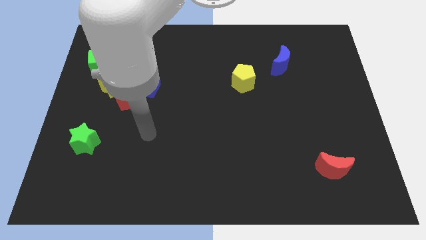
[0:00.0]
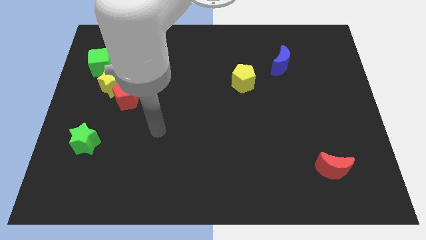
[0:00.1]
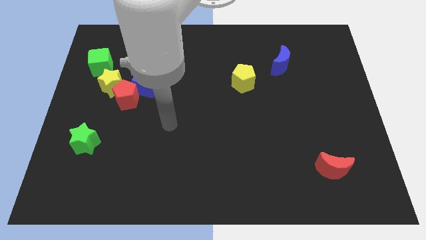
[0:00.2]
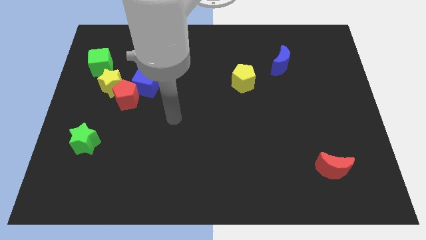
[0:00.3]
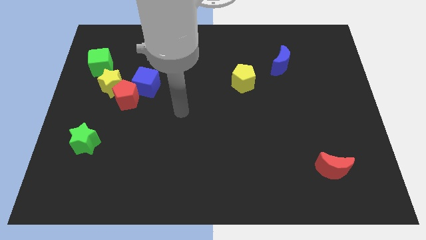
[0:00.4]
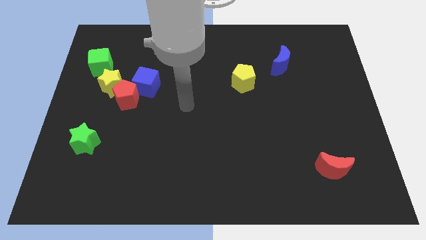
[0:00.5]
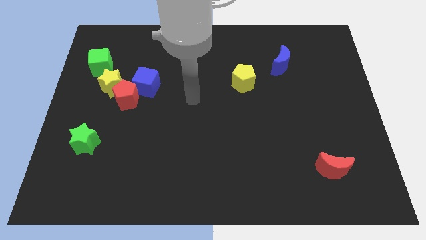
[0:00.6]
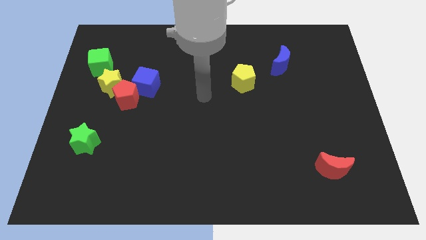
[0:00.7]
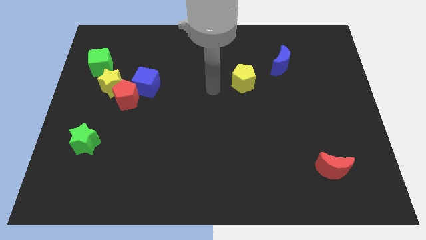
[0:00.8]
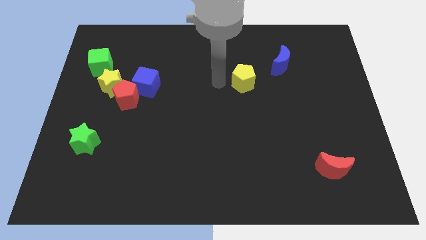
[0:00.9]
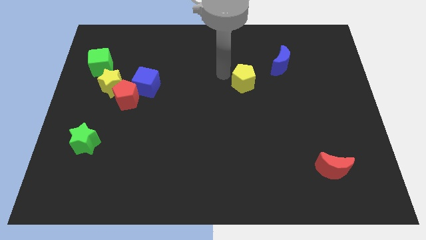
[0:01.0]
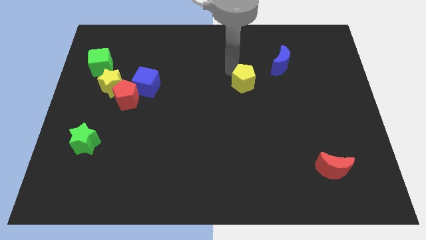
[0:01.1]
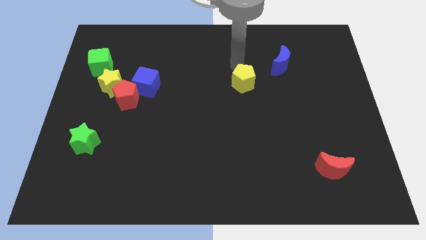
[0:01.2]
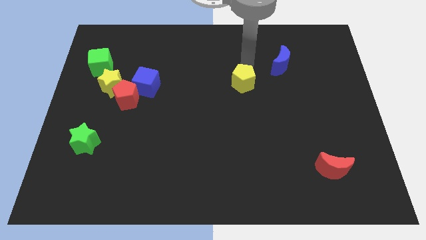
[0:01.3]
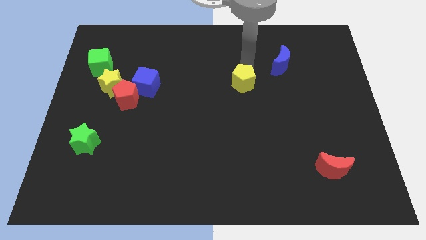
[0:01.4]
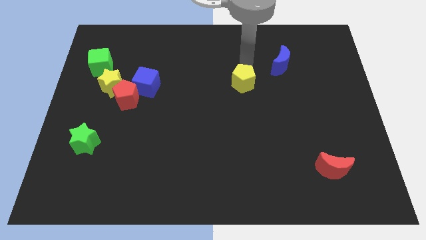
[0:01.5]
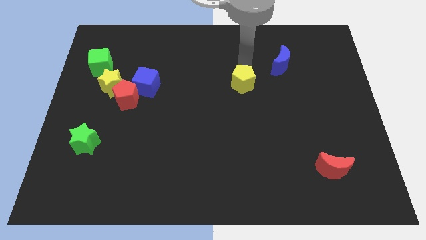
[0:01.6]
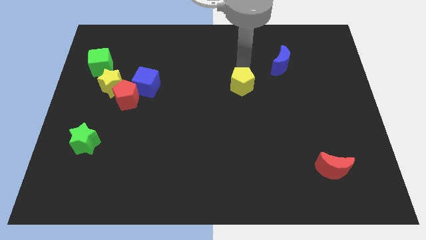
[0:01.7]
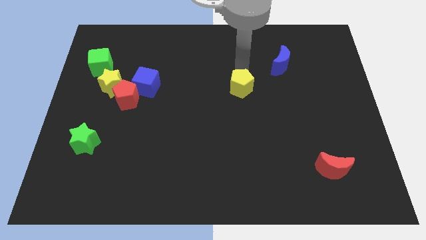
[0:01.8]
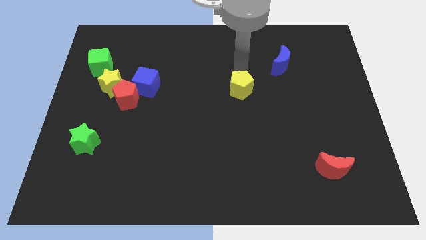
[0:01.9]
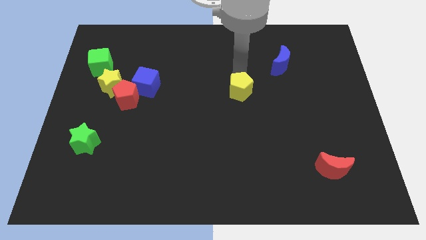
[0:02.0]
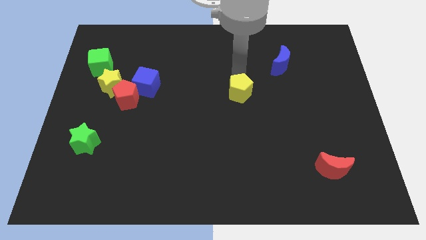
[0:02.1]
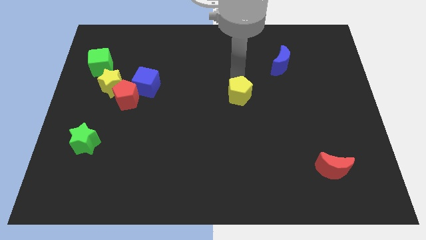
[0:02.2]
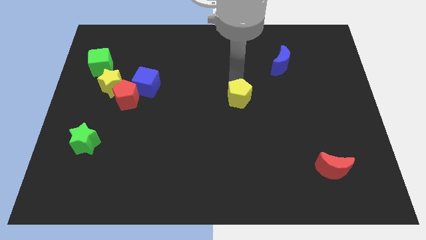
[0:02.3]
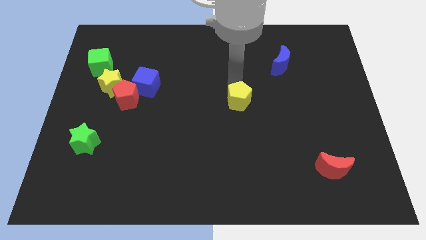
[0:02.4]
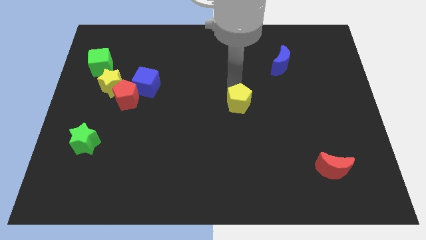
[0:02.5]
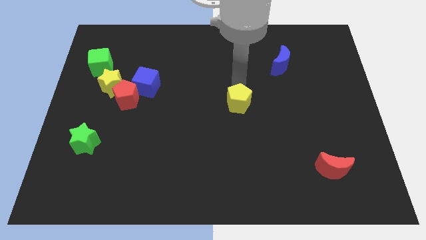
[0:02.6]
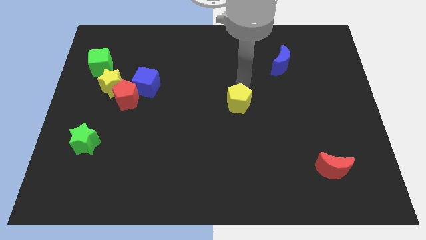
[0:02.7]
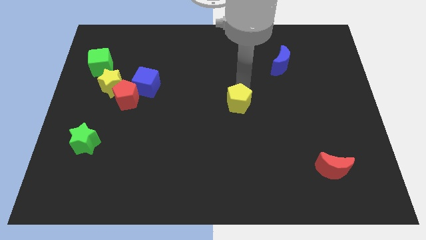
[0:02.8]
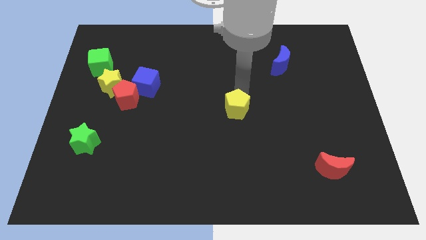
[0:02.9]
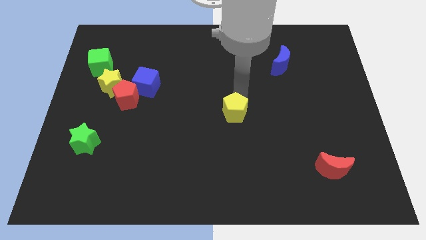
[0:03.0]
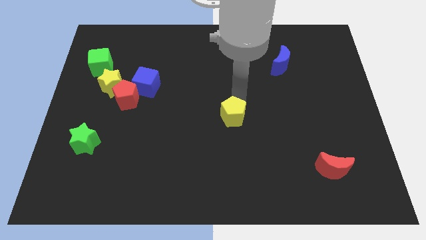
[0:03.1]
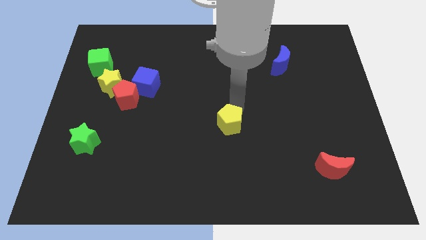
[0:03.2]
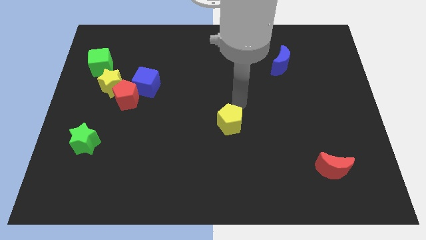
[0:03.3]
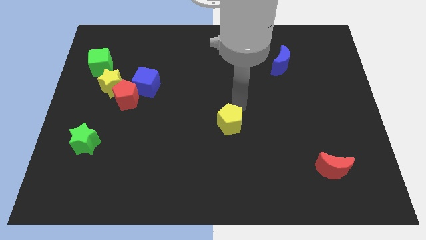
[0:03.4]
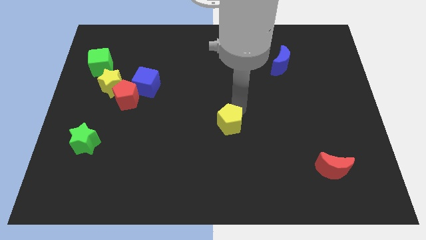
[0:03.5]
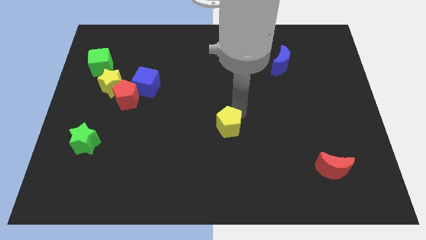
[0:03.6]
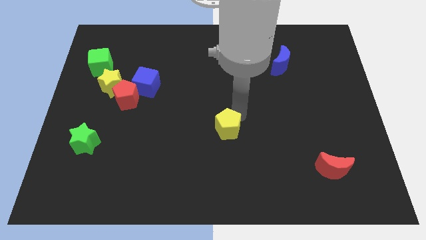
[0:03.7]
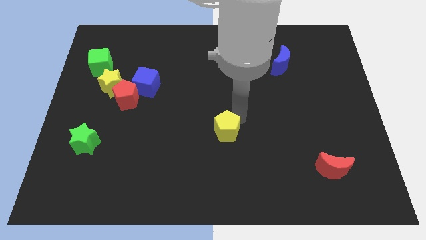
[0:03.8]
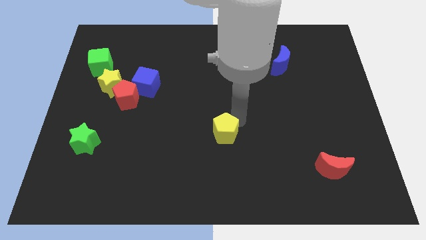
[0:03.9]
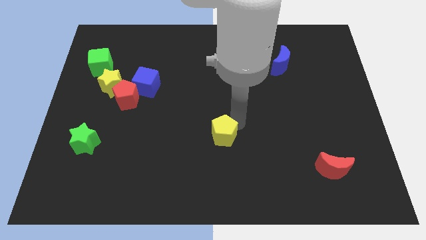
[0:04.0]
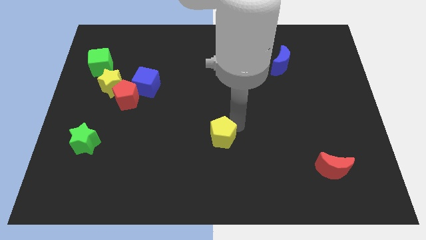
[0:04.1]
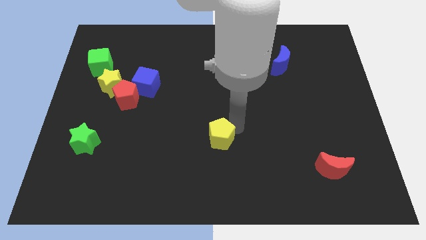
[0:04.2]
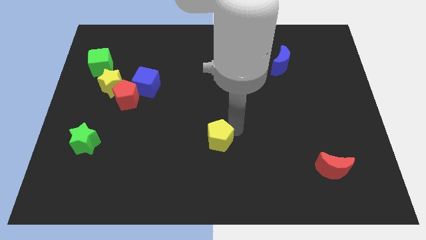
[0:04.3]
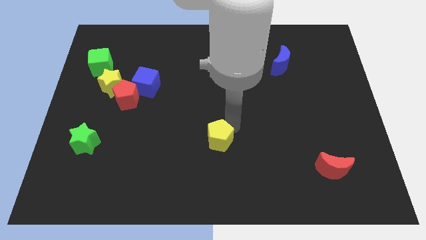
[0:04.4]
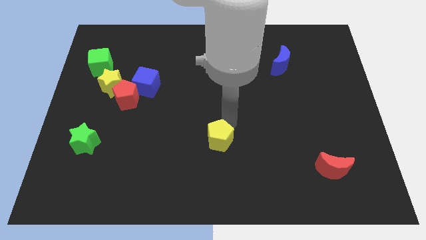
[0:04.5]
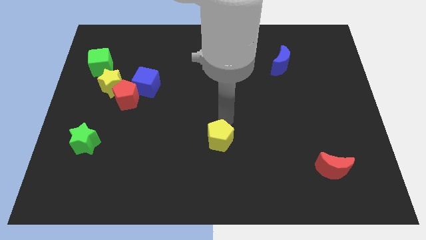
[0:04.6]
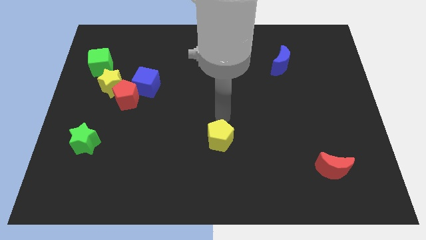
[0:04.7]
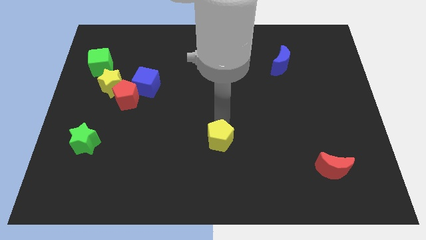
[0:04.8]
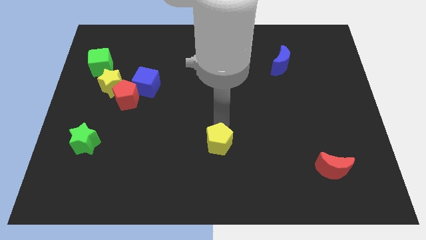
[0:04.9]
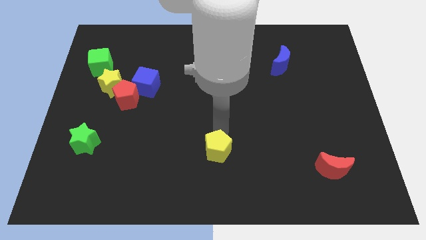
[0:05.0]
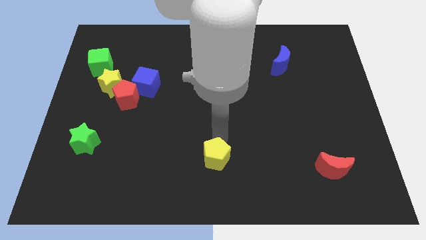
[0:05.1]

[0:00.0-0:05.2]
slide the yellow pentagon to the bottom

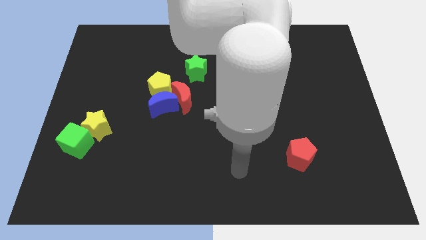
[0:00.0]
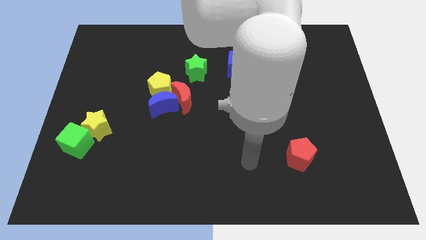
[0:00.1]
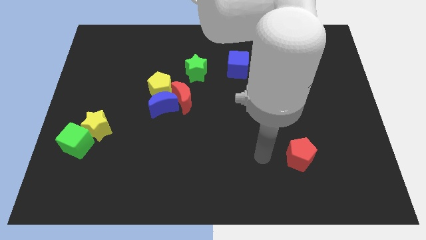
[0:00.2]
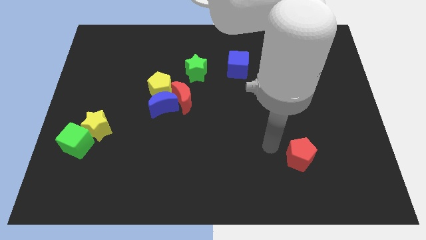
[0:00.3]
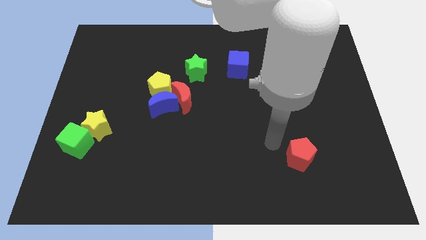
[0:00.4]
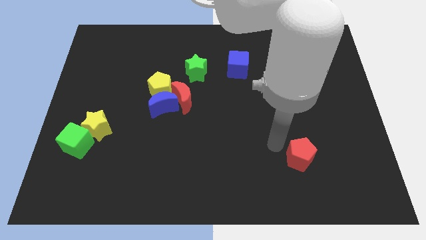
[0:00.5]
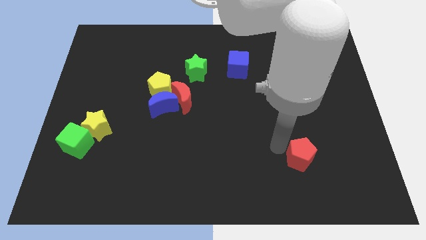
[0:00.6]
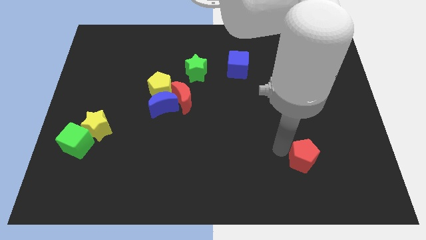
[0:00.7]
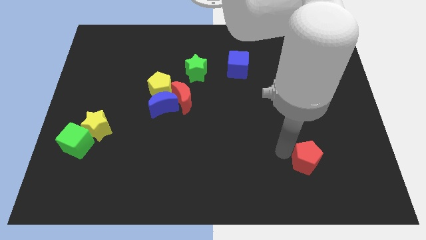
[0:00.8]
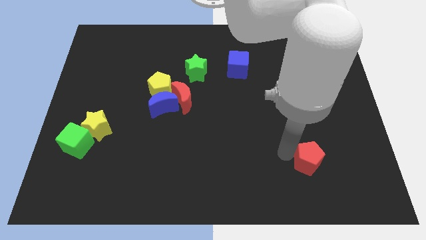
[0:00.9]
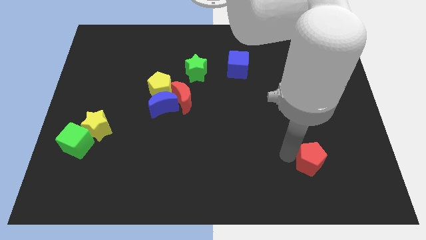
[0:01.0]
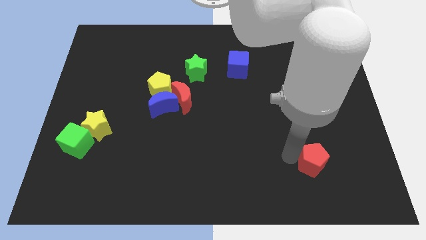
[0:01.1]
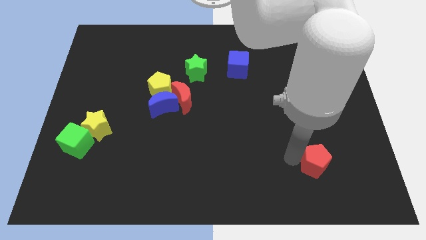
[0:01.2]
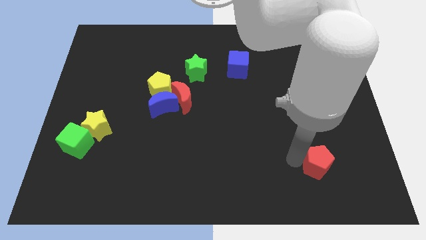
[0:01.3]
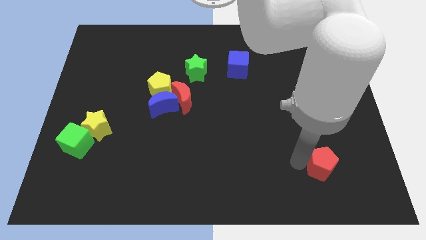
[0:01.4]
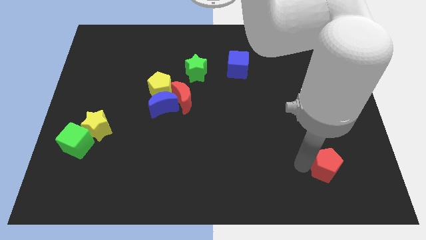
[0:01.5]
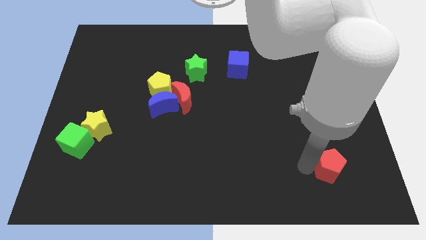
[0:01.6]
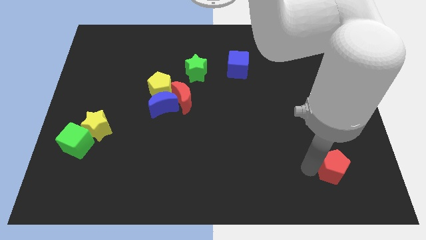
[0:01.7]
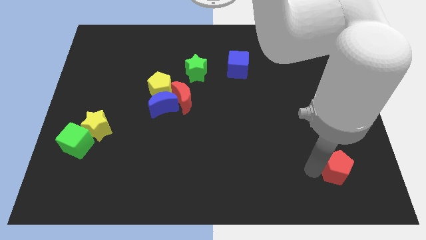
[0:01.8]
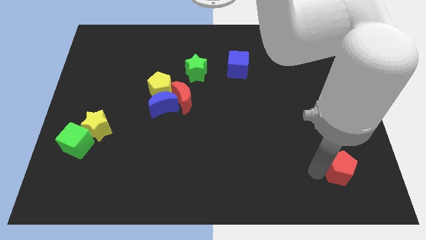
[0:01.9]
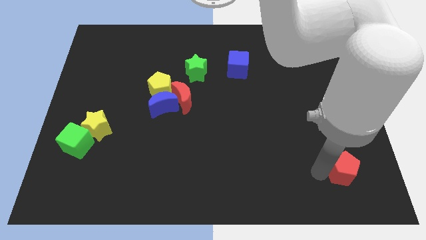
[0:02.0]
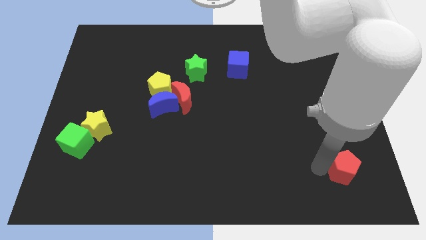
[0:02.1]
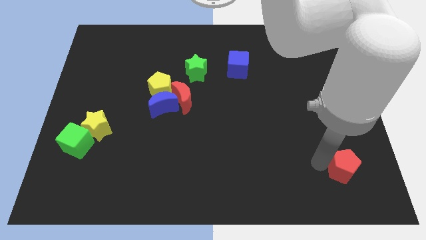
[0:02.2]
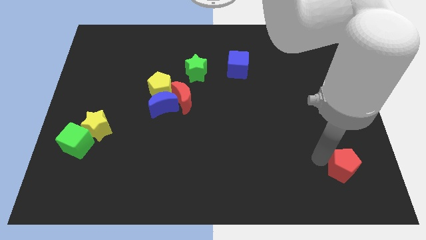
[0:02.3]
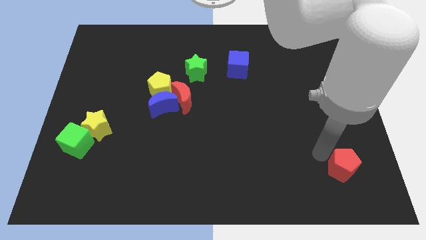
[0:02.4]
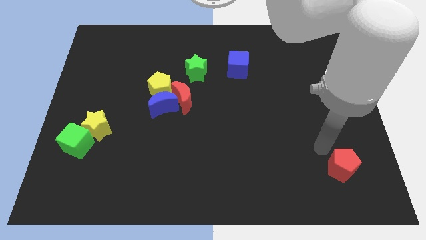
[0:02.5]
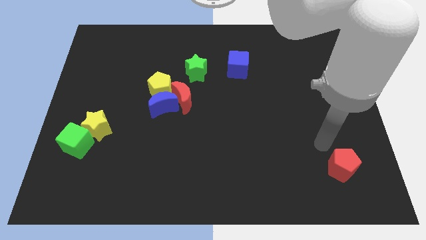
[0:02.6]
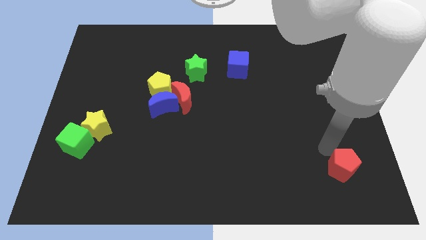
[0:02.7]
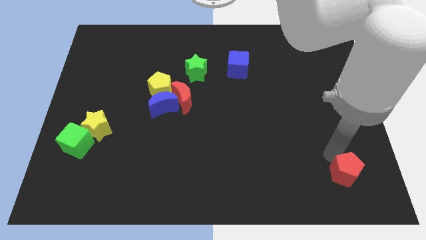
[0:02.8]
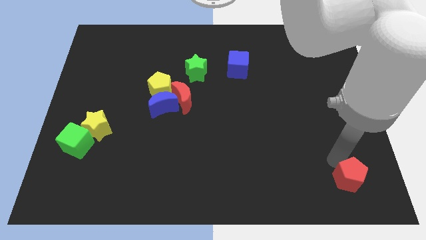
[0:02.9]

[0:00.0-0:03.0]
slide the red pentagon to the bottom right corner
